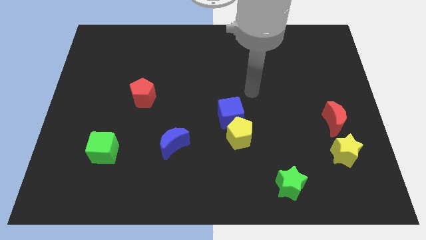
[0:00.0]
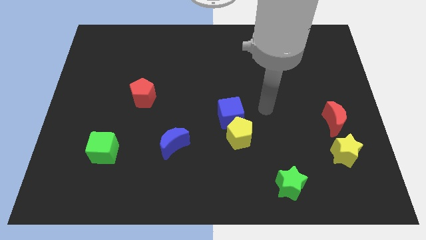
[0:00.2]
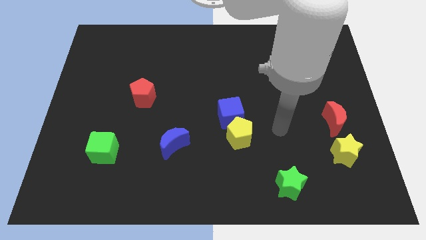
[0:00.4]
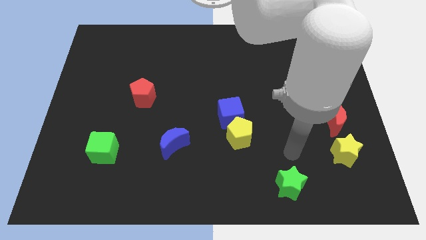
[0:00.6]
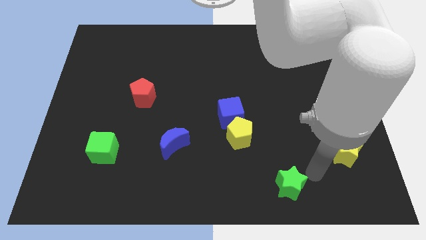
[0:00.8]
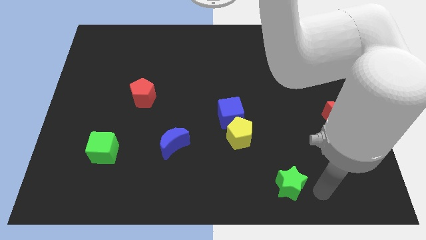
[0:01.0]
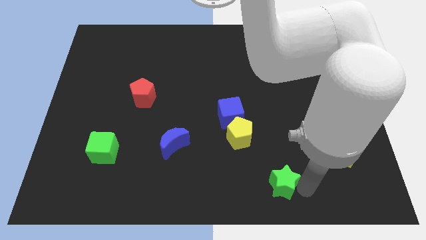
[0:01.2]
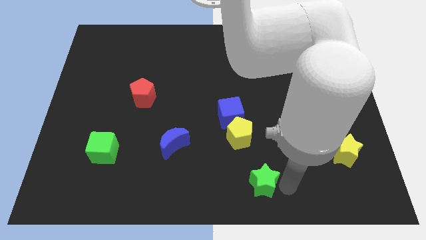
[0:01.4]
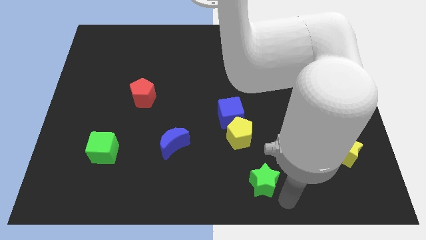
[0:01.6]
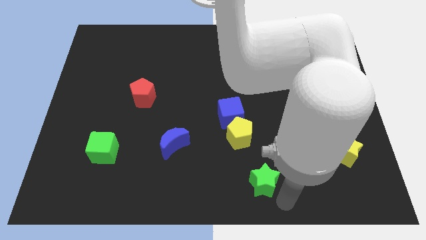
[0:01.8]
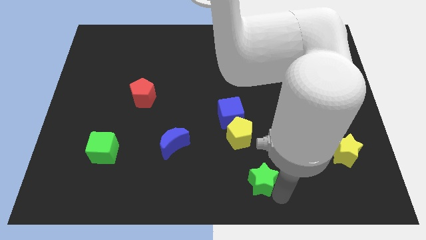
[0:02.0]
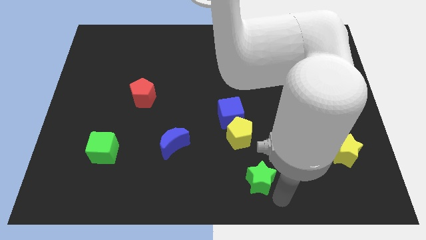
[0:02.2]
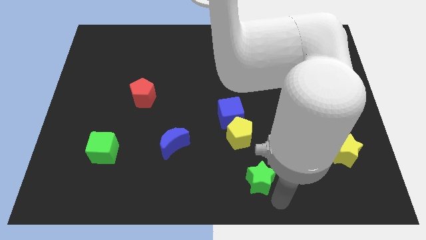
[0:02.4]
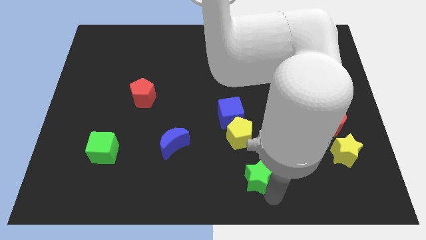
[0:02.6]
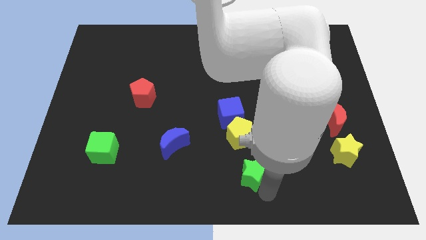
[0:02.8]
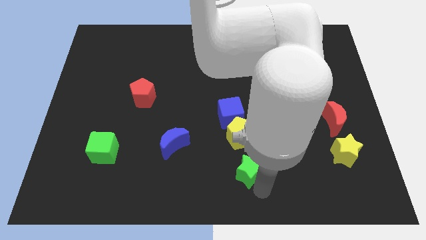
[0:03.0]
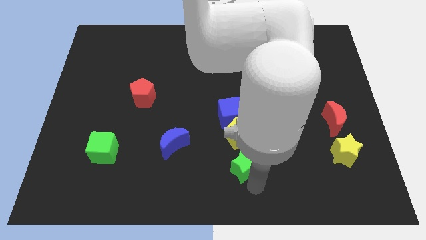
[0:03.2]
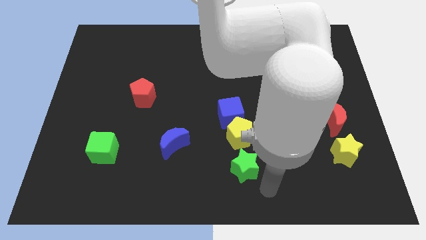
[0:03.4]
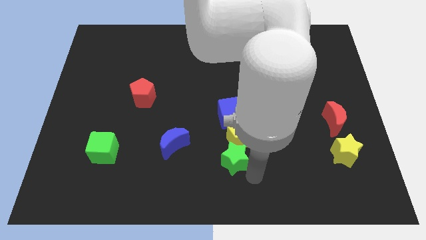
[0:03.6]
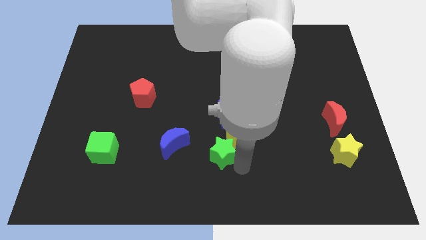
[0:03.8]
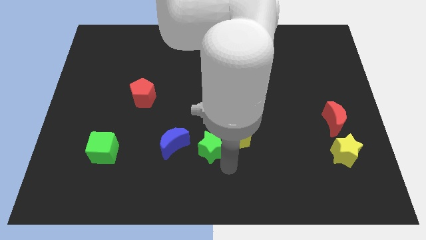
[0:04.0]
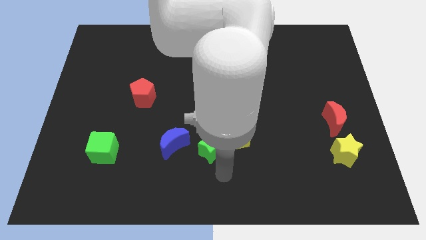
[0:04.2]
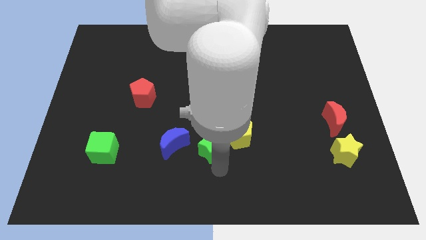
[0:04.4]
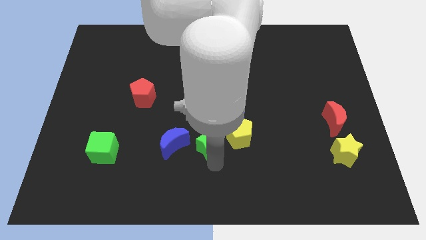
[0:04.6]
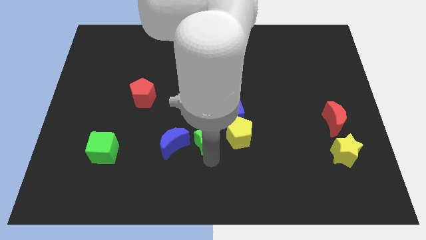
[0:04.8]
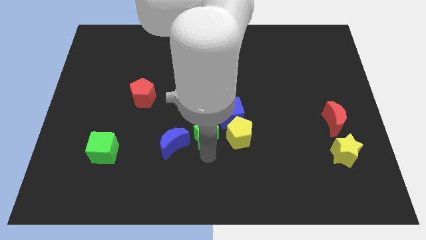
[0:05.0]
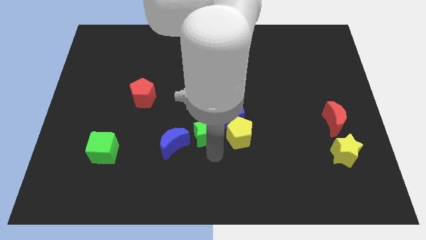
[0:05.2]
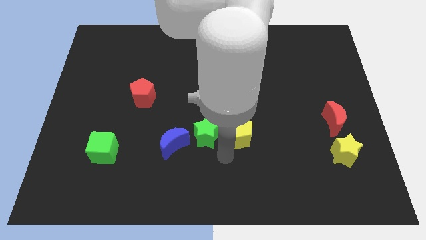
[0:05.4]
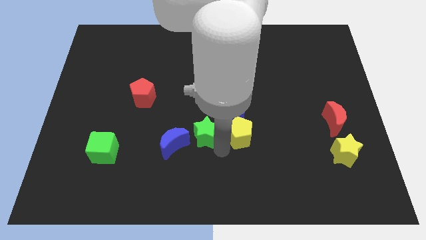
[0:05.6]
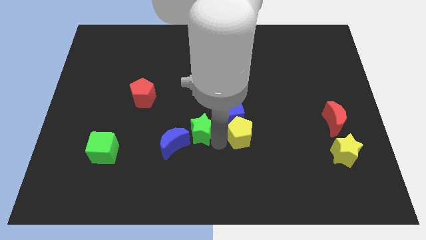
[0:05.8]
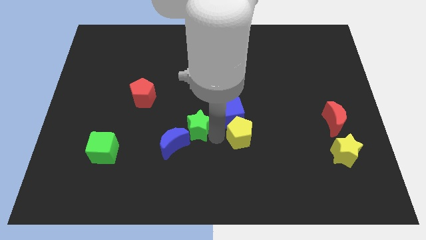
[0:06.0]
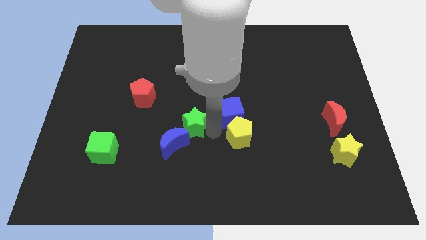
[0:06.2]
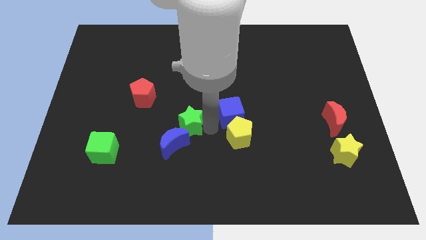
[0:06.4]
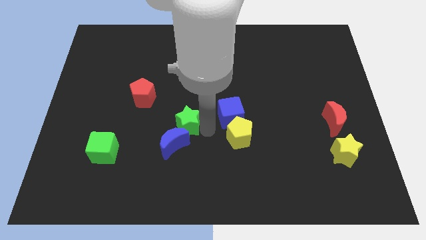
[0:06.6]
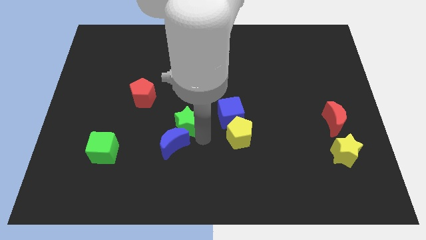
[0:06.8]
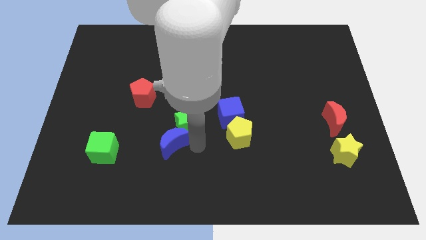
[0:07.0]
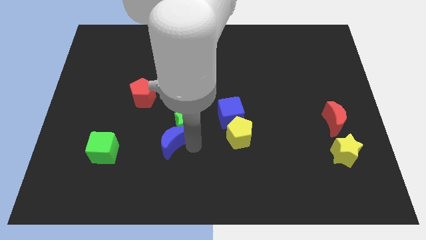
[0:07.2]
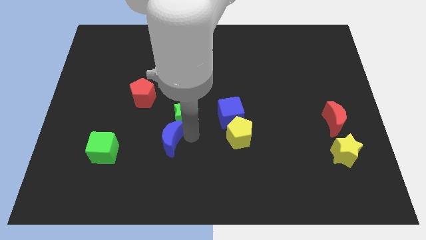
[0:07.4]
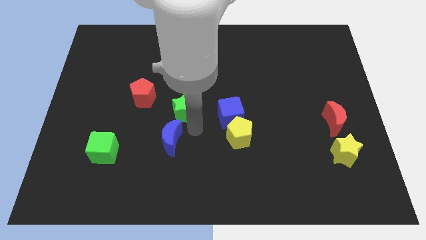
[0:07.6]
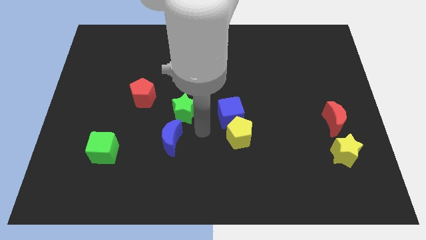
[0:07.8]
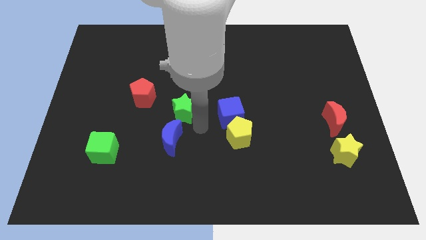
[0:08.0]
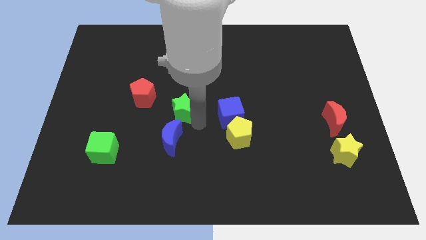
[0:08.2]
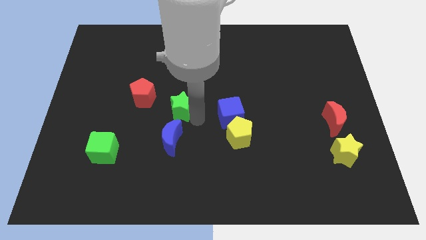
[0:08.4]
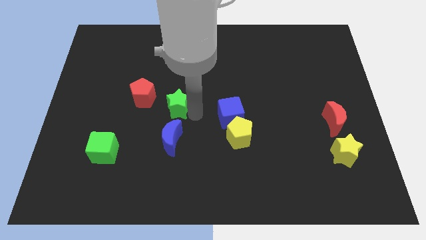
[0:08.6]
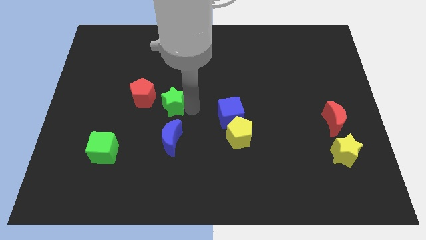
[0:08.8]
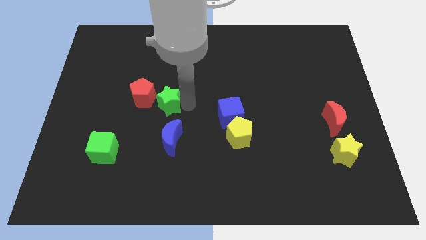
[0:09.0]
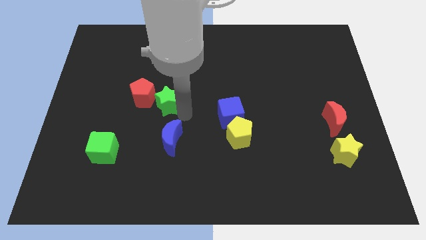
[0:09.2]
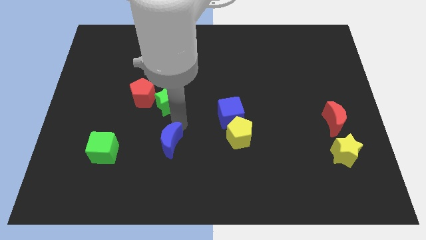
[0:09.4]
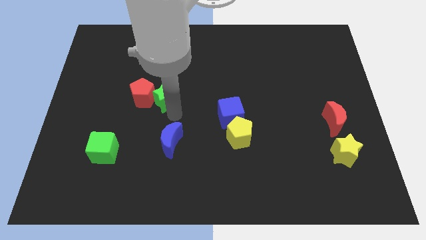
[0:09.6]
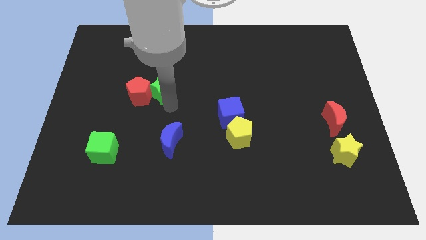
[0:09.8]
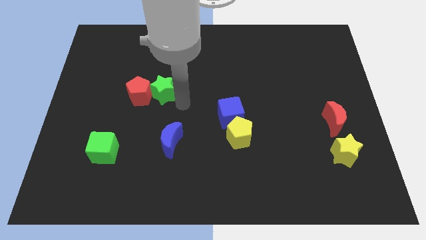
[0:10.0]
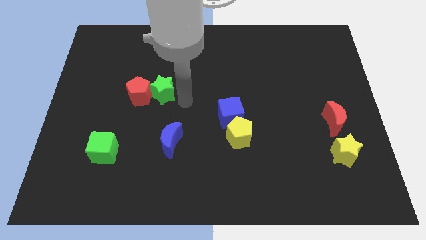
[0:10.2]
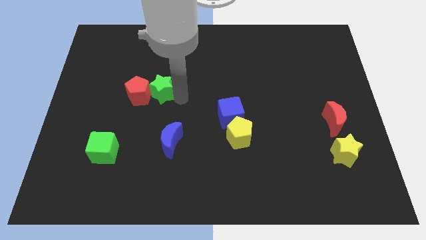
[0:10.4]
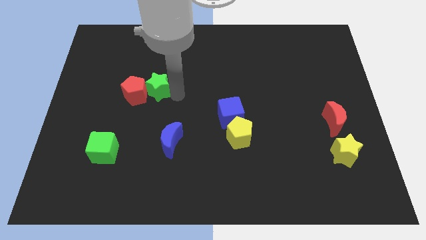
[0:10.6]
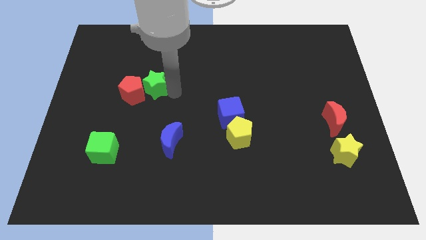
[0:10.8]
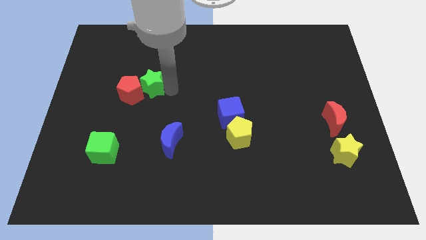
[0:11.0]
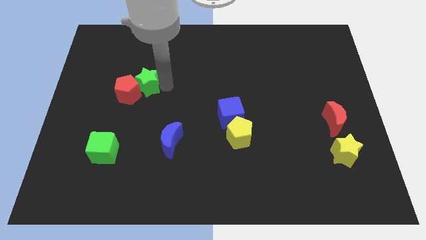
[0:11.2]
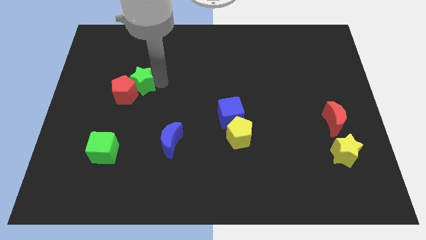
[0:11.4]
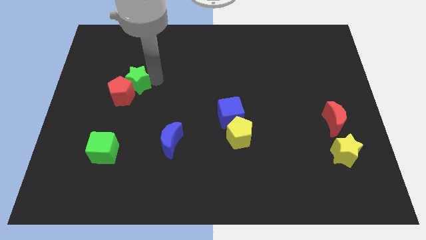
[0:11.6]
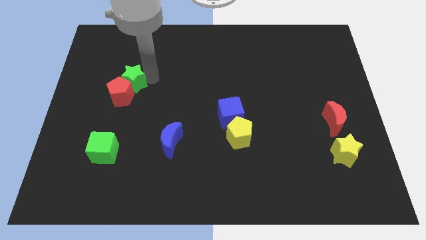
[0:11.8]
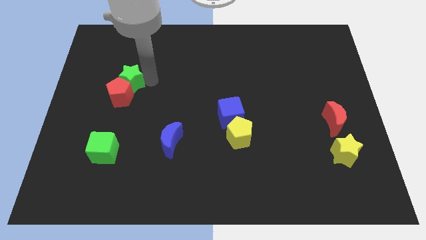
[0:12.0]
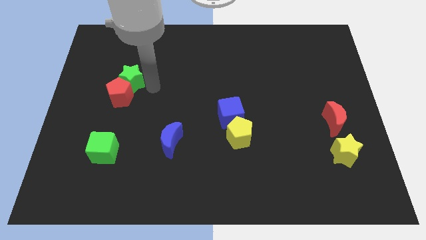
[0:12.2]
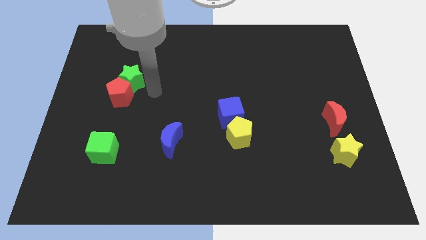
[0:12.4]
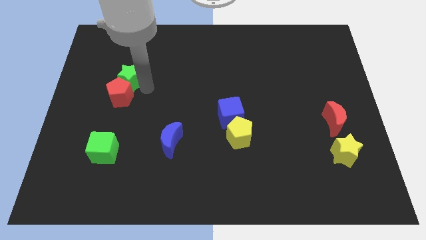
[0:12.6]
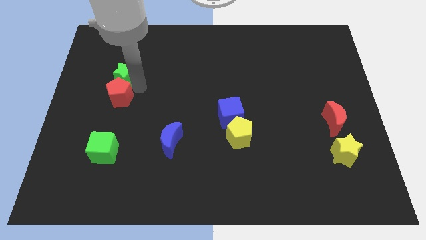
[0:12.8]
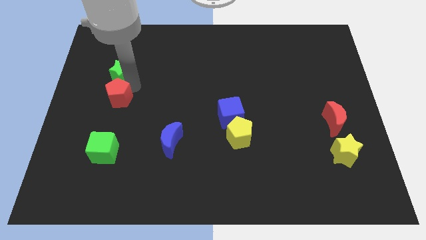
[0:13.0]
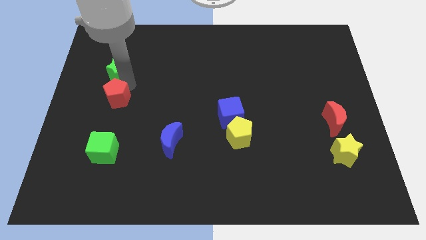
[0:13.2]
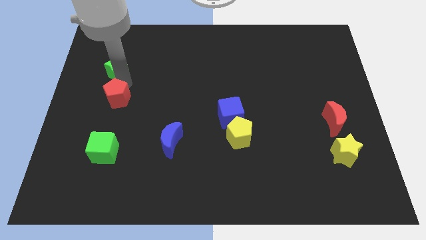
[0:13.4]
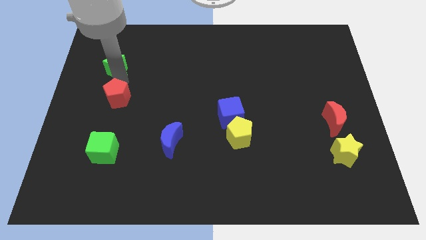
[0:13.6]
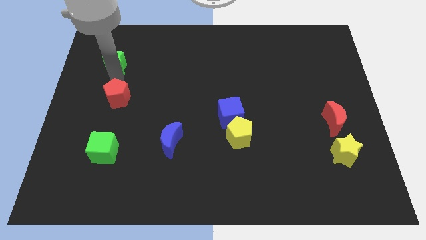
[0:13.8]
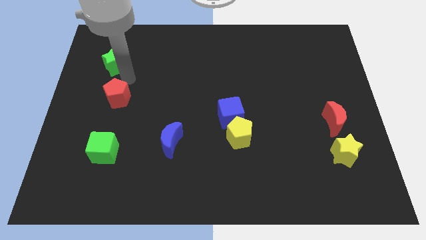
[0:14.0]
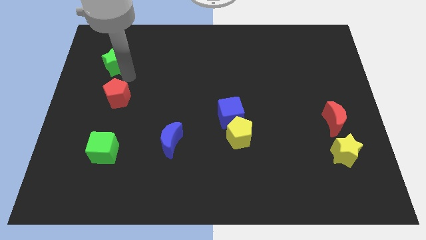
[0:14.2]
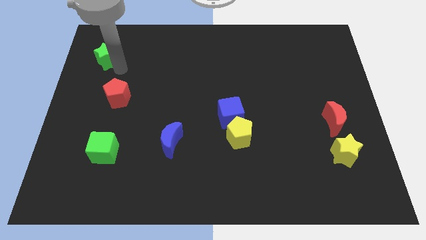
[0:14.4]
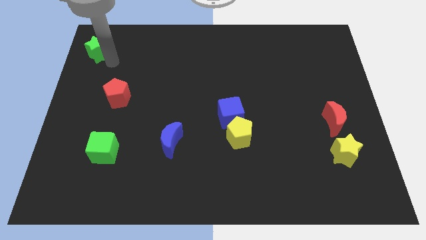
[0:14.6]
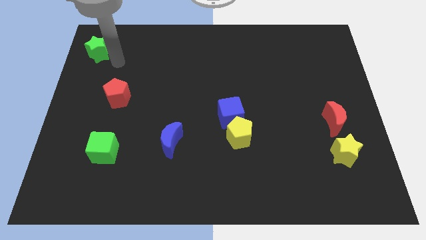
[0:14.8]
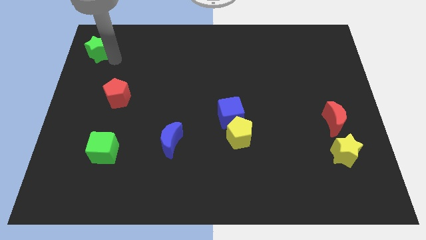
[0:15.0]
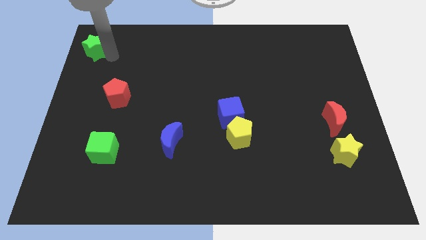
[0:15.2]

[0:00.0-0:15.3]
push the green star to the top left
